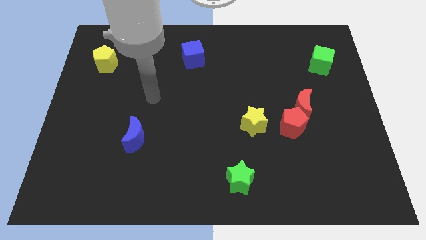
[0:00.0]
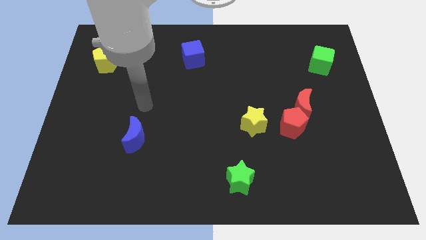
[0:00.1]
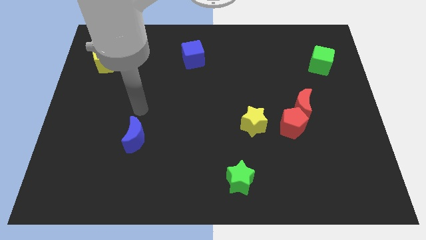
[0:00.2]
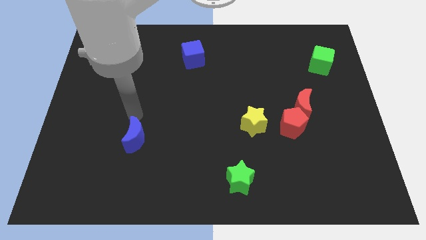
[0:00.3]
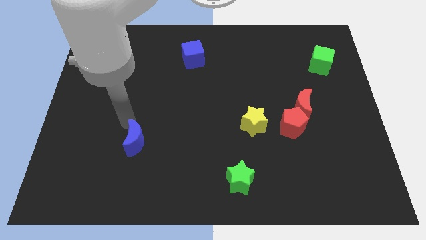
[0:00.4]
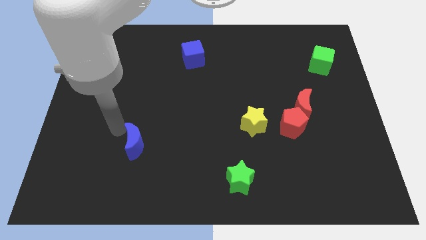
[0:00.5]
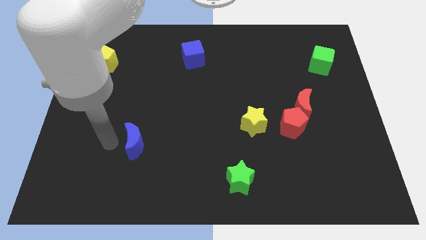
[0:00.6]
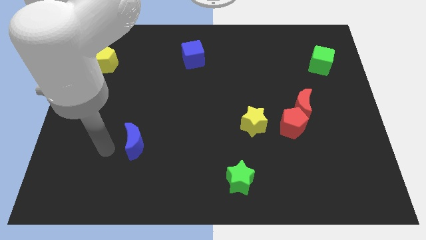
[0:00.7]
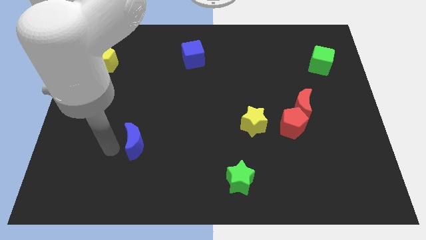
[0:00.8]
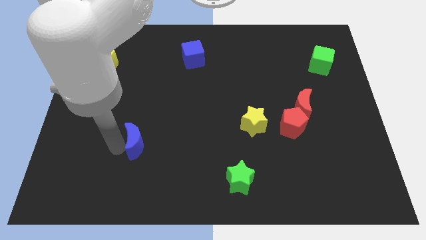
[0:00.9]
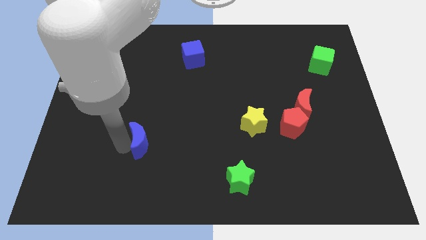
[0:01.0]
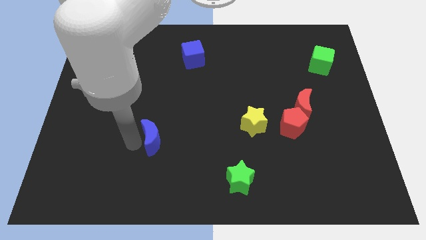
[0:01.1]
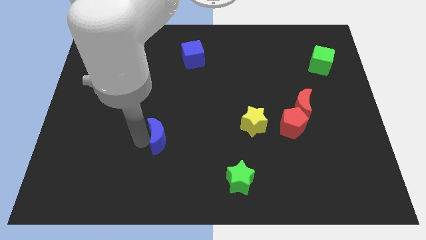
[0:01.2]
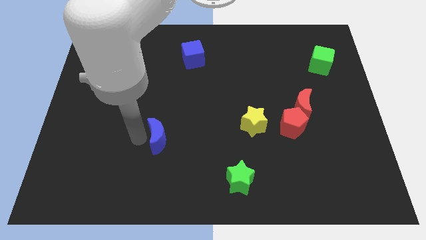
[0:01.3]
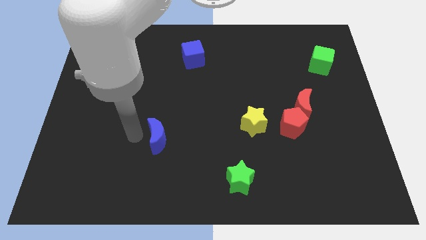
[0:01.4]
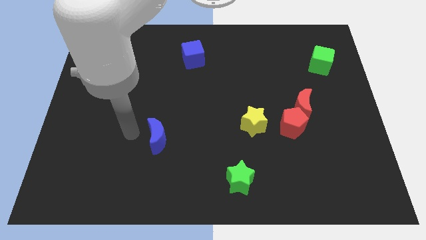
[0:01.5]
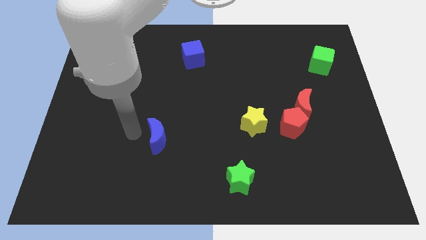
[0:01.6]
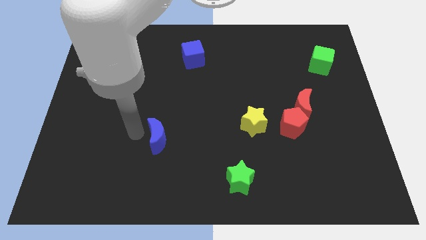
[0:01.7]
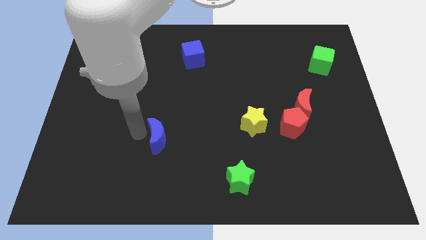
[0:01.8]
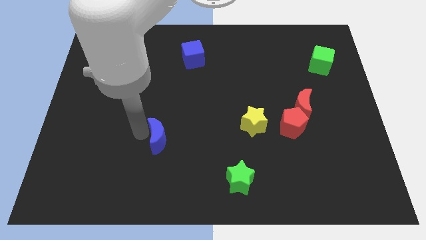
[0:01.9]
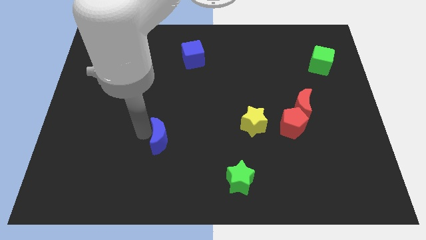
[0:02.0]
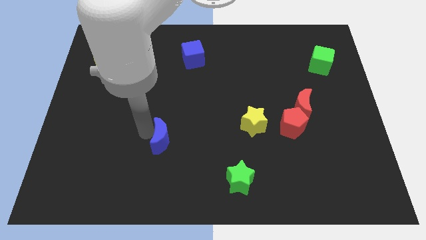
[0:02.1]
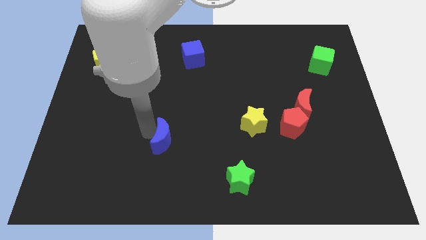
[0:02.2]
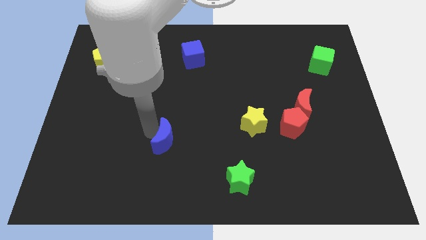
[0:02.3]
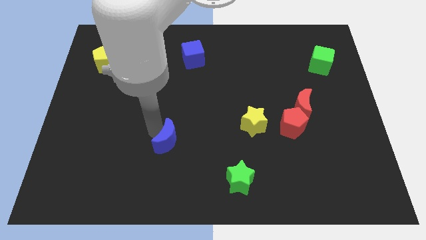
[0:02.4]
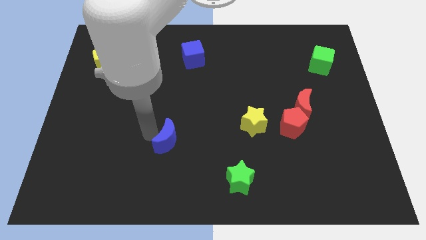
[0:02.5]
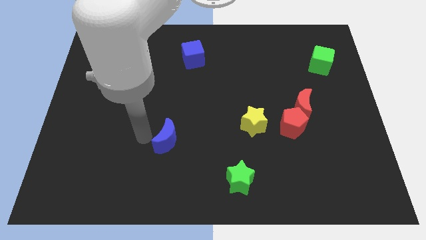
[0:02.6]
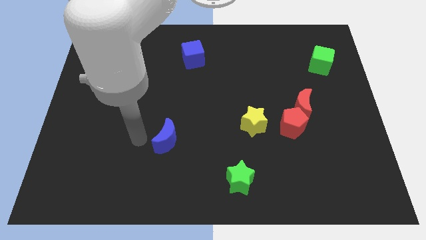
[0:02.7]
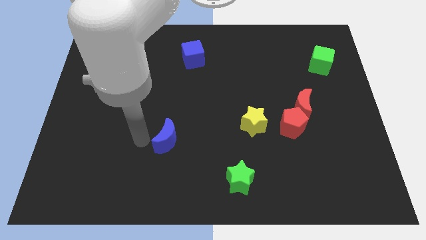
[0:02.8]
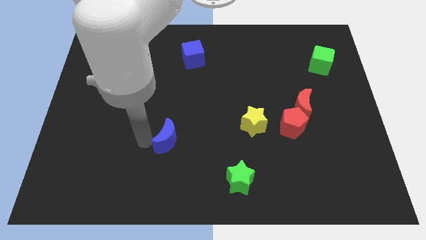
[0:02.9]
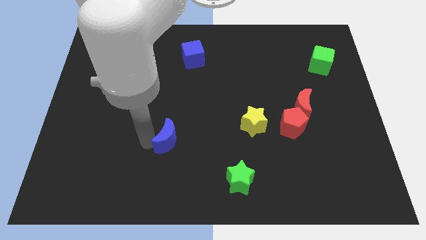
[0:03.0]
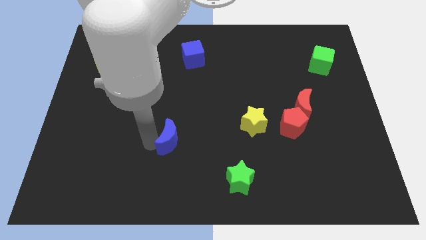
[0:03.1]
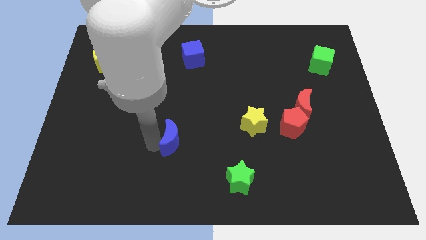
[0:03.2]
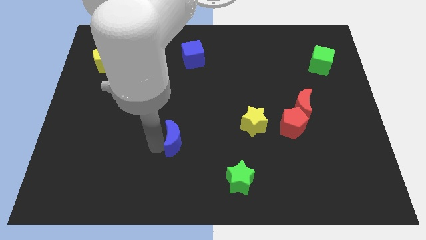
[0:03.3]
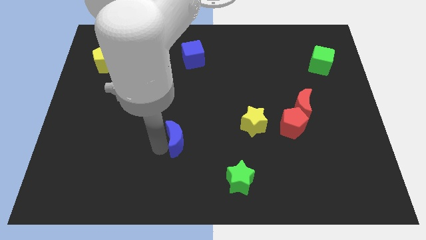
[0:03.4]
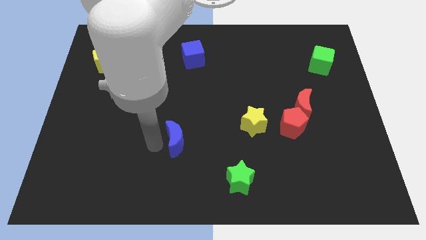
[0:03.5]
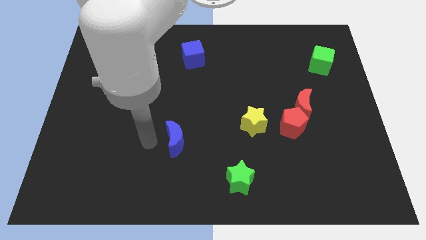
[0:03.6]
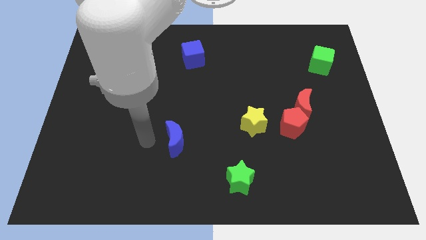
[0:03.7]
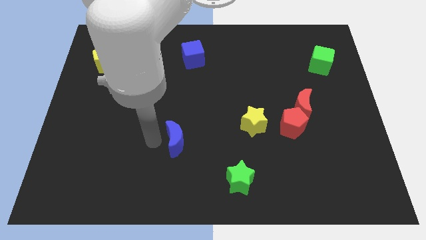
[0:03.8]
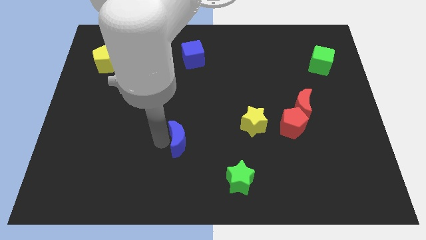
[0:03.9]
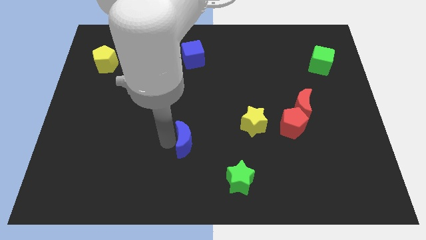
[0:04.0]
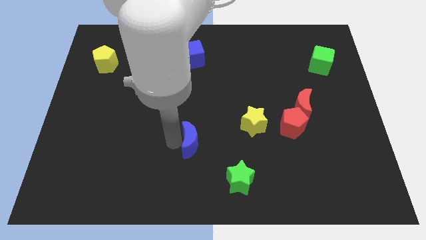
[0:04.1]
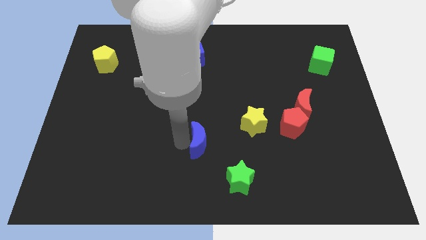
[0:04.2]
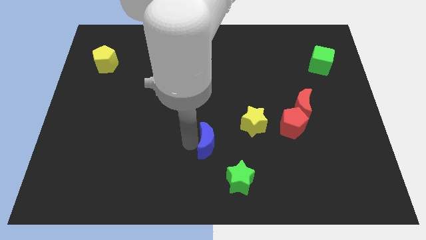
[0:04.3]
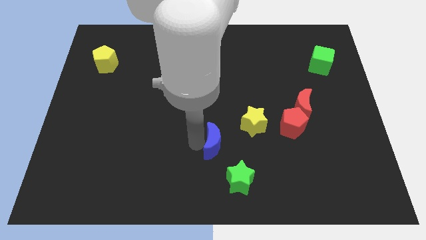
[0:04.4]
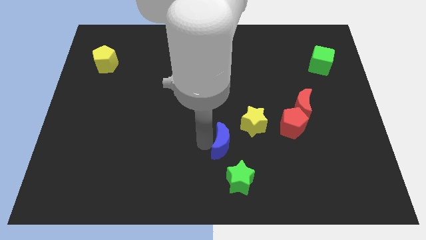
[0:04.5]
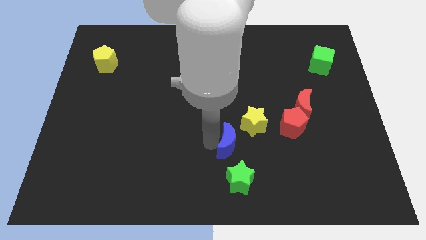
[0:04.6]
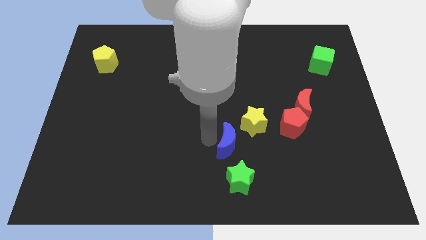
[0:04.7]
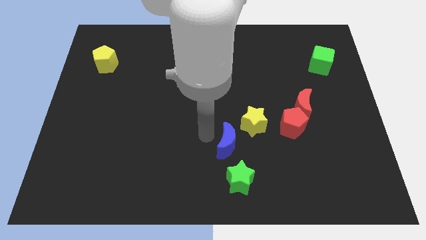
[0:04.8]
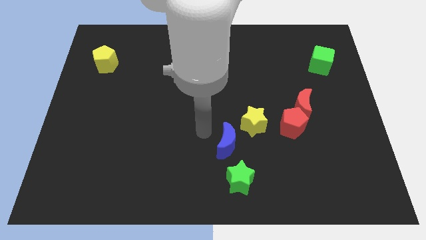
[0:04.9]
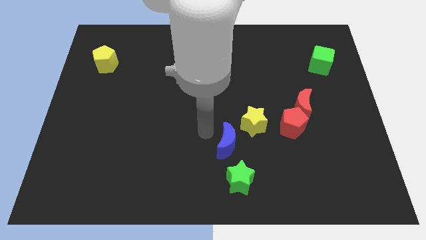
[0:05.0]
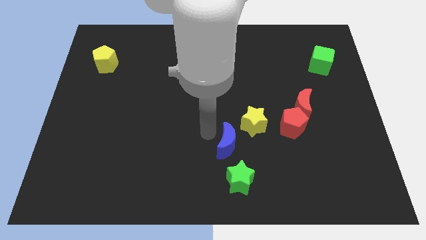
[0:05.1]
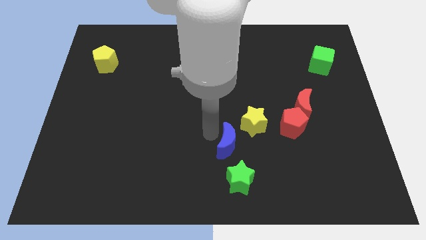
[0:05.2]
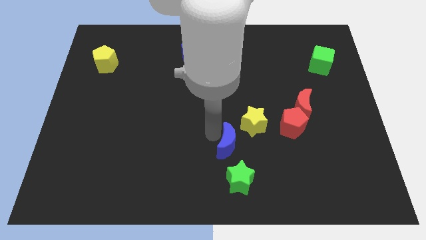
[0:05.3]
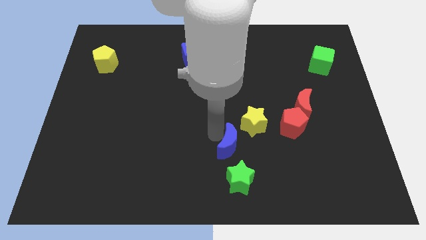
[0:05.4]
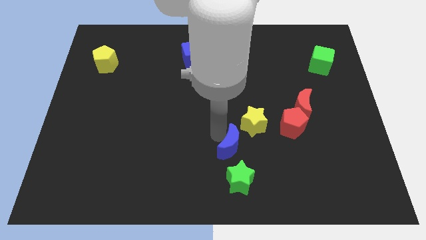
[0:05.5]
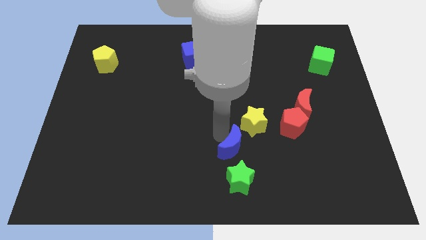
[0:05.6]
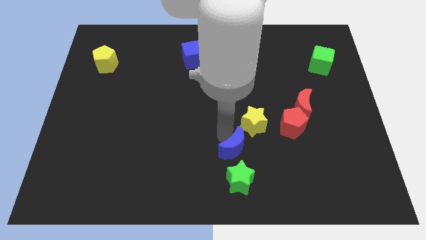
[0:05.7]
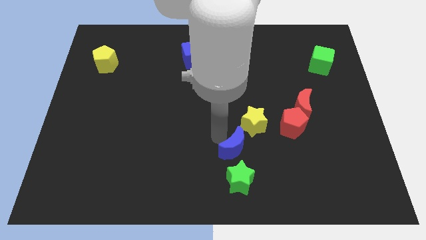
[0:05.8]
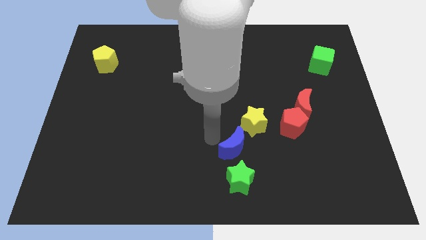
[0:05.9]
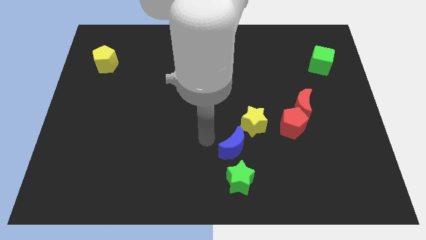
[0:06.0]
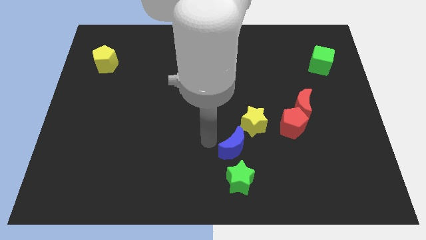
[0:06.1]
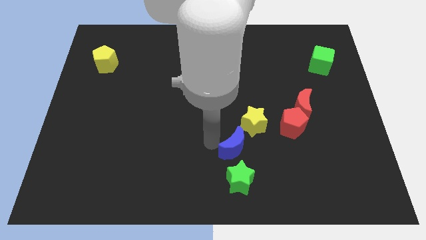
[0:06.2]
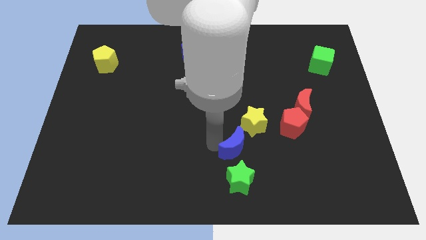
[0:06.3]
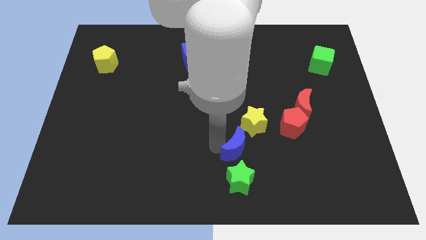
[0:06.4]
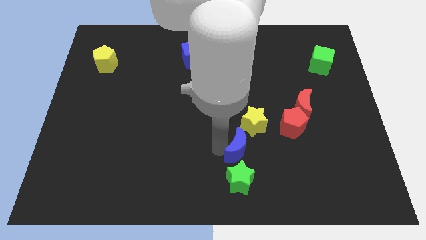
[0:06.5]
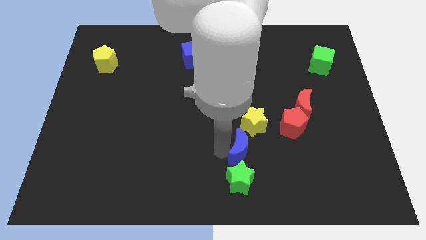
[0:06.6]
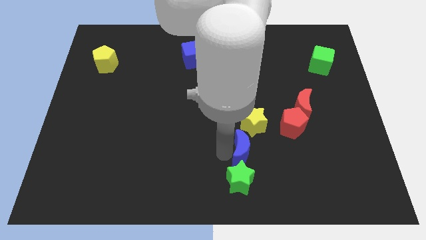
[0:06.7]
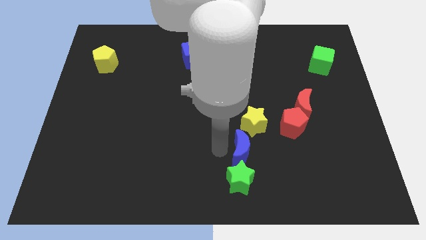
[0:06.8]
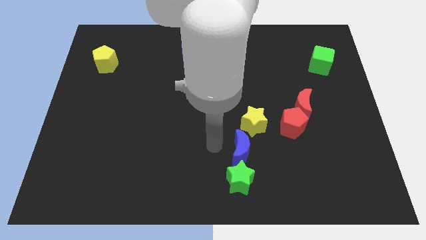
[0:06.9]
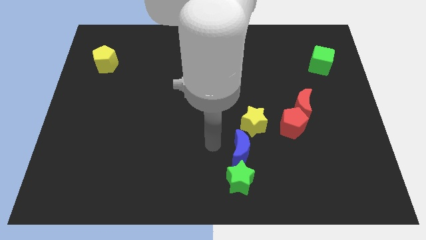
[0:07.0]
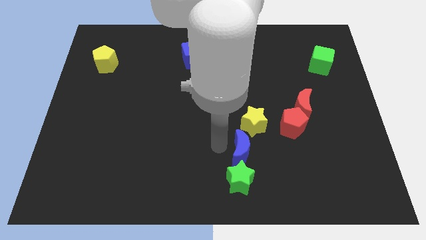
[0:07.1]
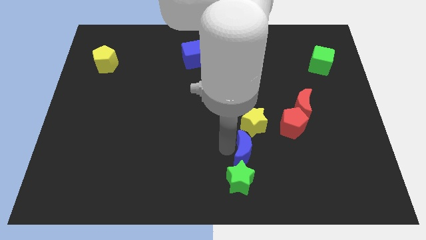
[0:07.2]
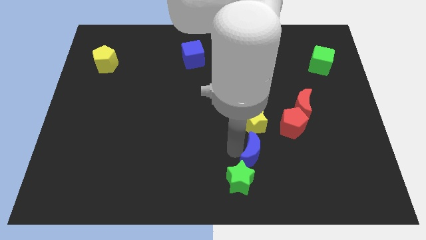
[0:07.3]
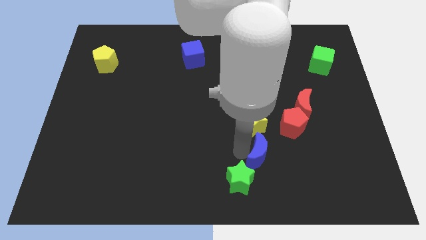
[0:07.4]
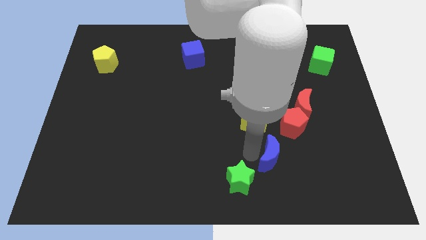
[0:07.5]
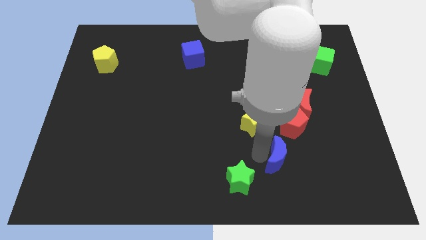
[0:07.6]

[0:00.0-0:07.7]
put the blue moon to the bottom side of the red pentagon
